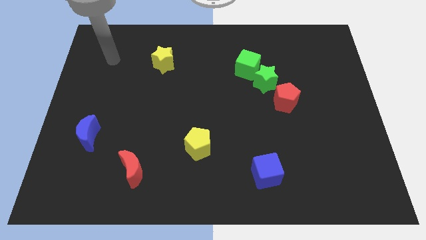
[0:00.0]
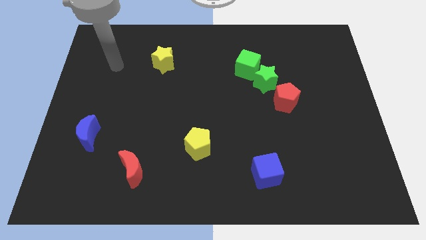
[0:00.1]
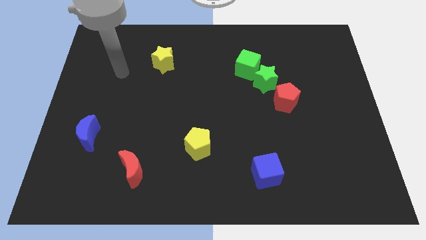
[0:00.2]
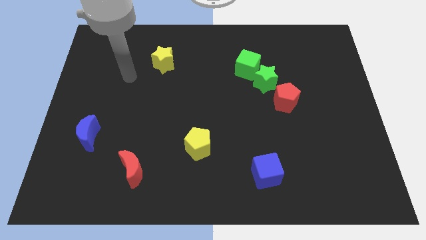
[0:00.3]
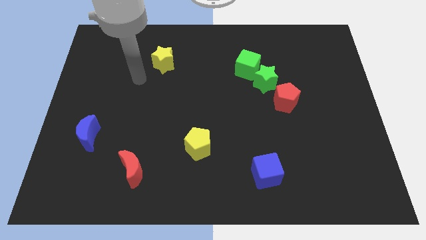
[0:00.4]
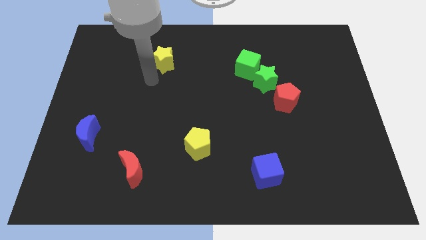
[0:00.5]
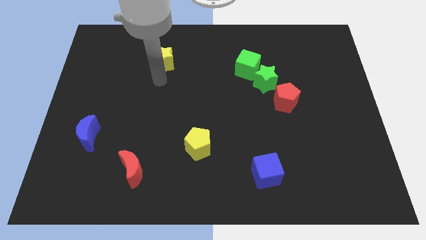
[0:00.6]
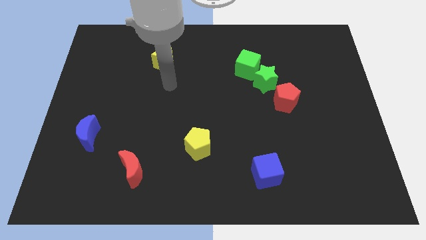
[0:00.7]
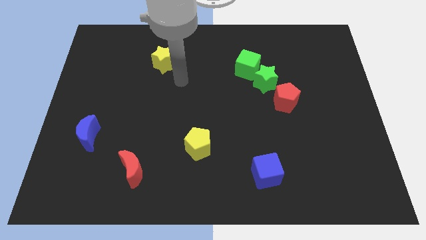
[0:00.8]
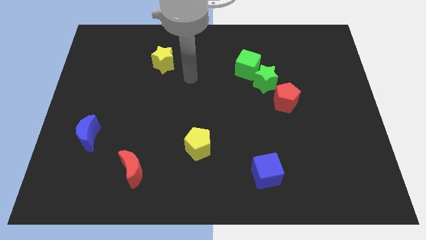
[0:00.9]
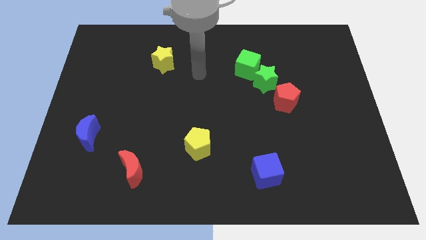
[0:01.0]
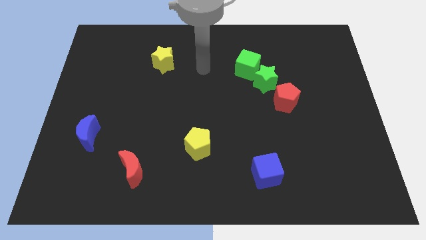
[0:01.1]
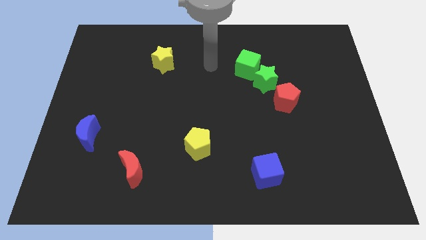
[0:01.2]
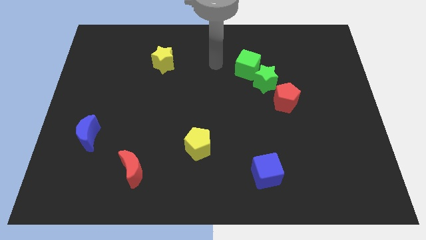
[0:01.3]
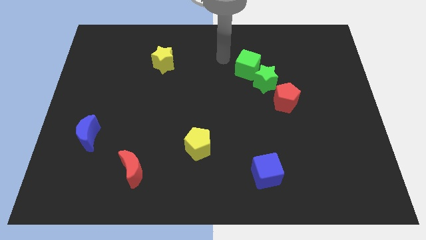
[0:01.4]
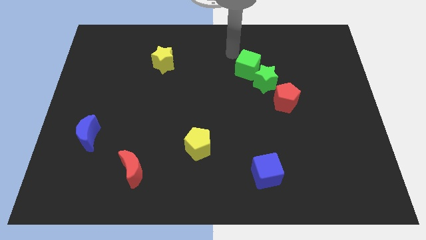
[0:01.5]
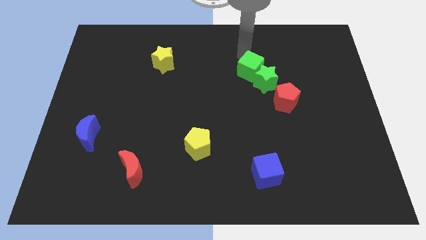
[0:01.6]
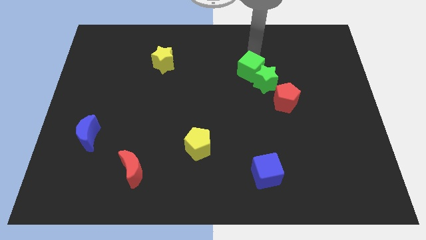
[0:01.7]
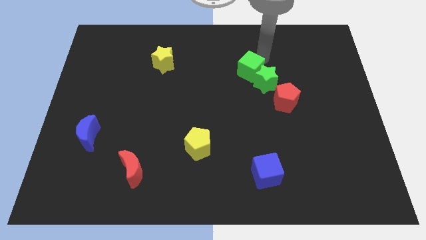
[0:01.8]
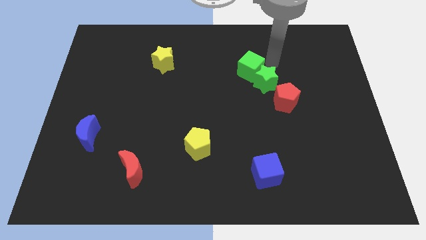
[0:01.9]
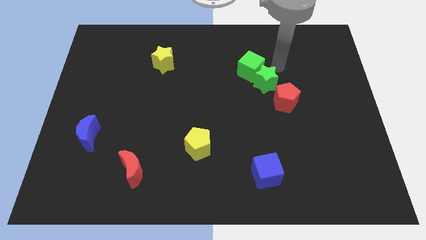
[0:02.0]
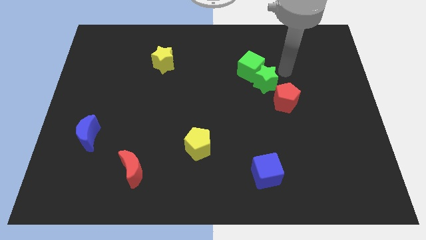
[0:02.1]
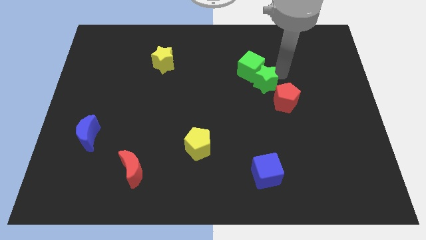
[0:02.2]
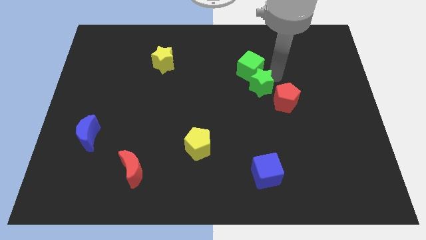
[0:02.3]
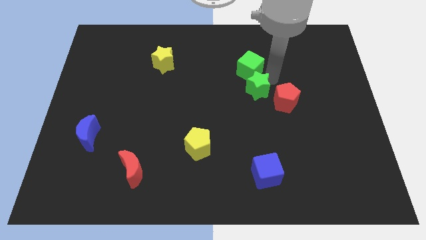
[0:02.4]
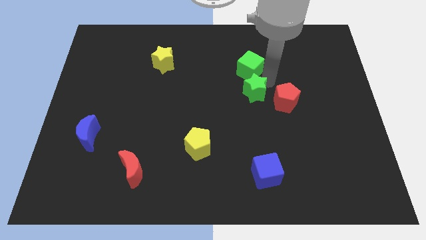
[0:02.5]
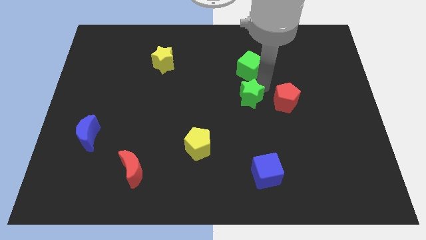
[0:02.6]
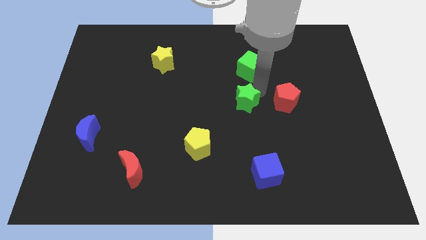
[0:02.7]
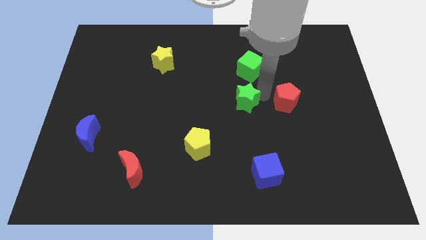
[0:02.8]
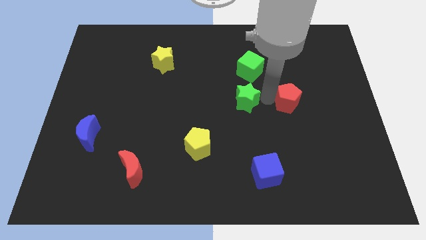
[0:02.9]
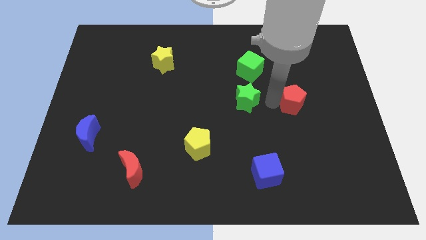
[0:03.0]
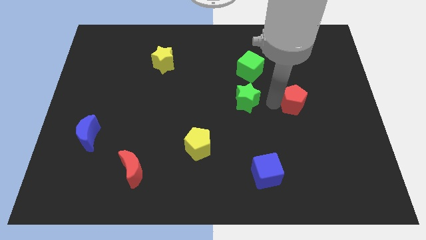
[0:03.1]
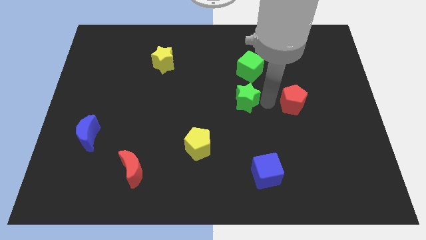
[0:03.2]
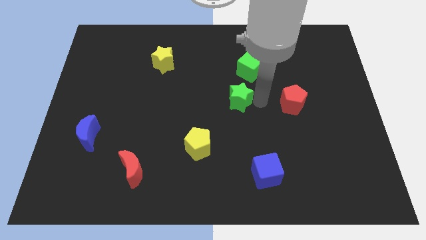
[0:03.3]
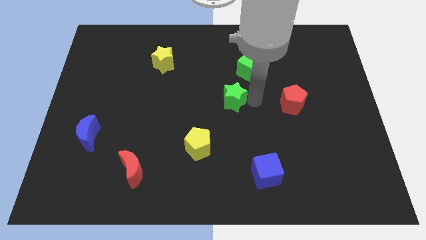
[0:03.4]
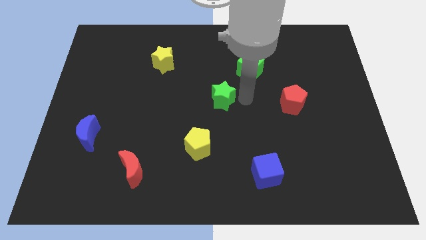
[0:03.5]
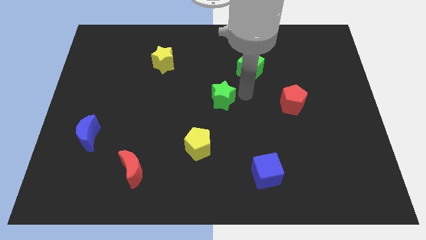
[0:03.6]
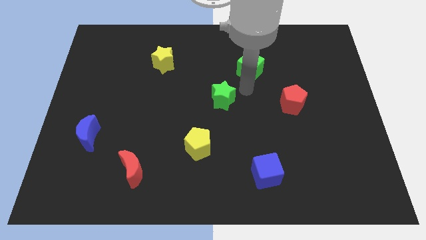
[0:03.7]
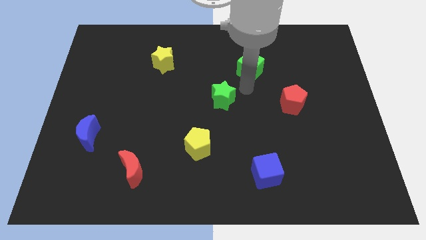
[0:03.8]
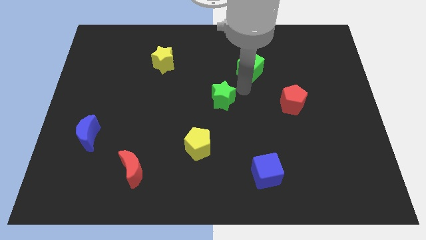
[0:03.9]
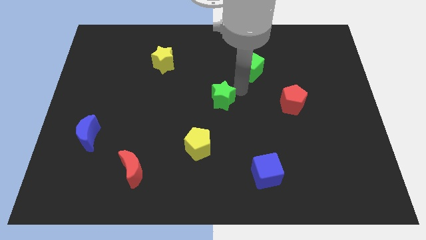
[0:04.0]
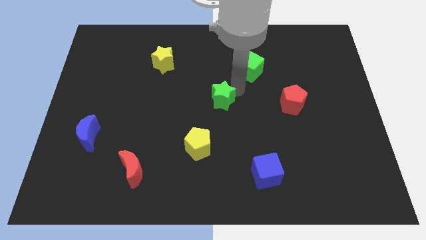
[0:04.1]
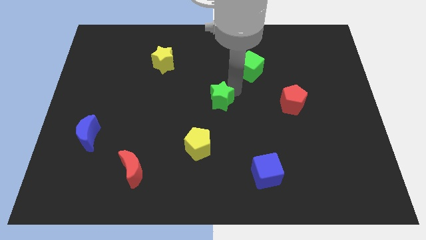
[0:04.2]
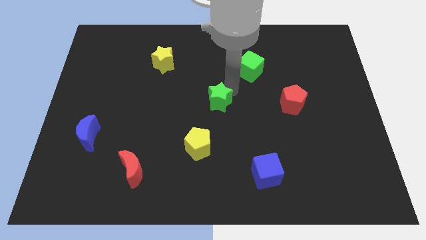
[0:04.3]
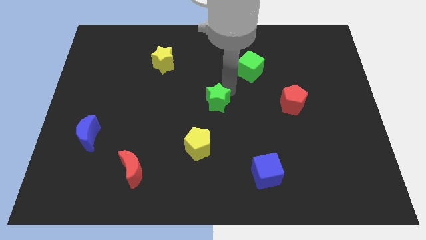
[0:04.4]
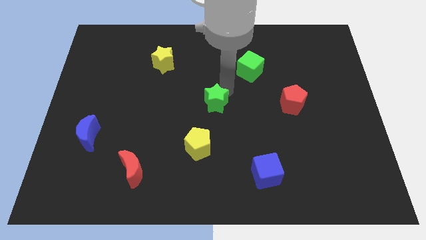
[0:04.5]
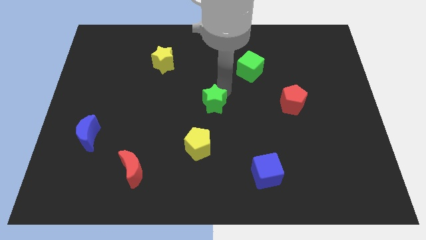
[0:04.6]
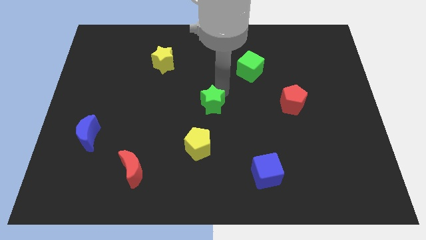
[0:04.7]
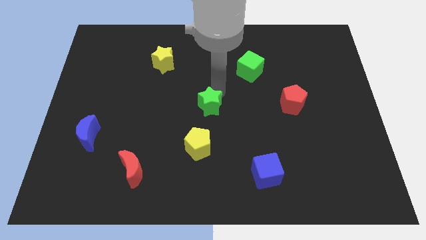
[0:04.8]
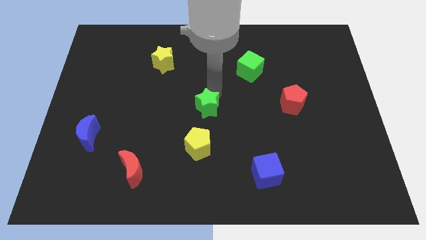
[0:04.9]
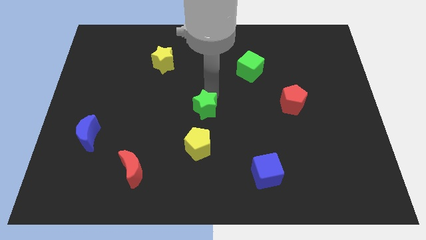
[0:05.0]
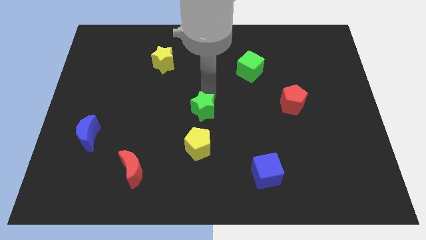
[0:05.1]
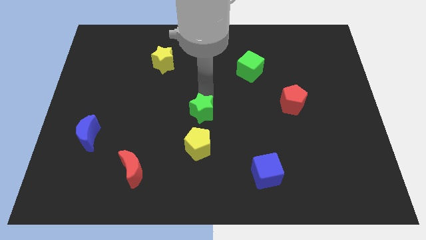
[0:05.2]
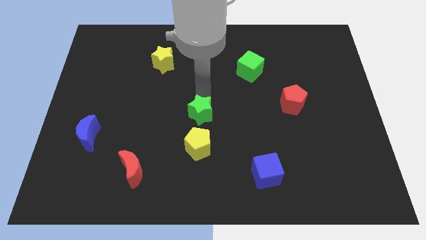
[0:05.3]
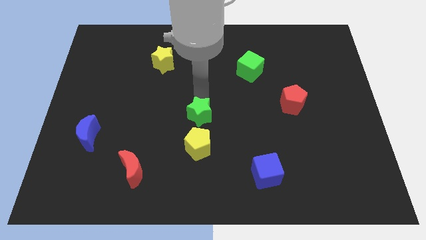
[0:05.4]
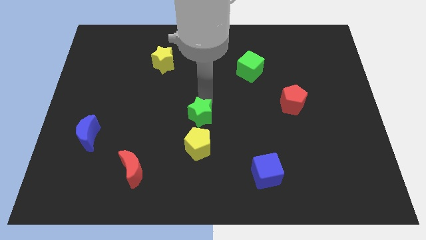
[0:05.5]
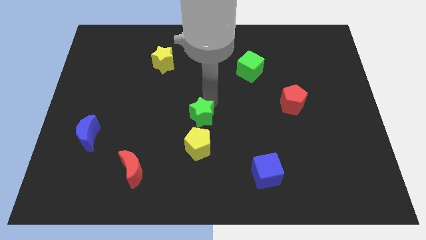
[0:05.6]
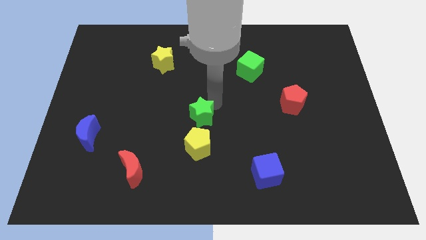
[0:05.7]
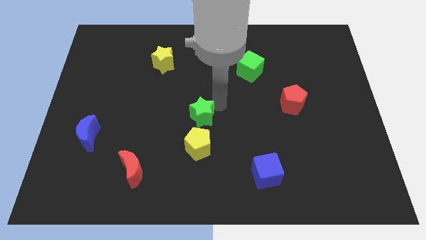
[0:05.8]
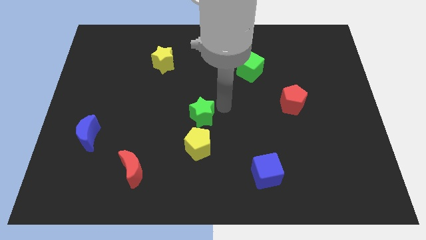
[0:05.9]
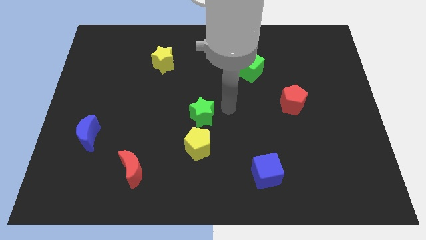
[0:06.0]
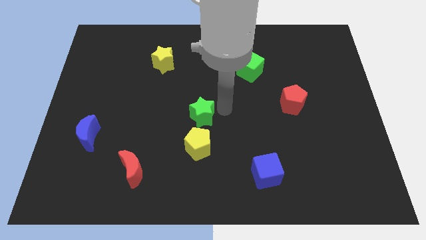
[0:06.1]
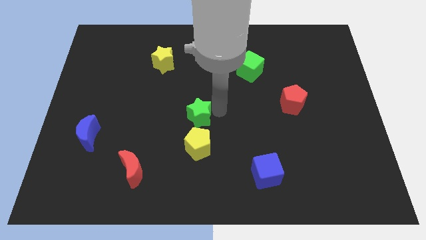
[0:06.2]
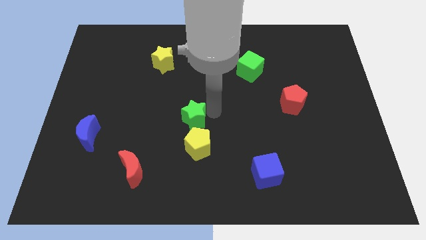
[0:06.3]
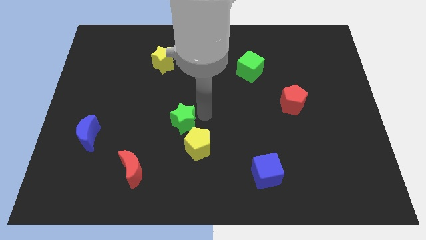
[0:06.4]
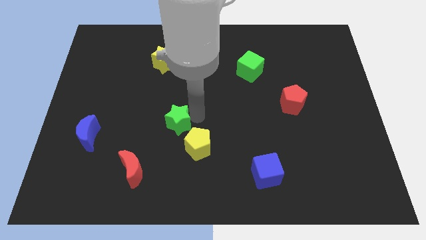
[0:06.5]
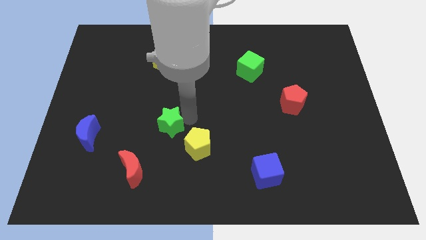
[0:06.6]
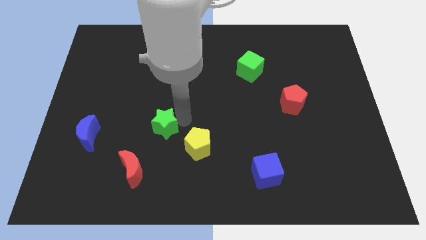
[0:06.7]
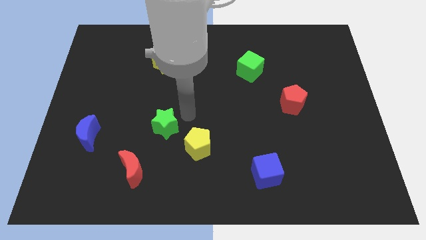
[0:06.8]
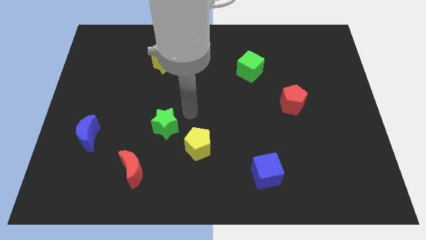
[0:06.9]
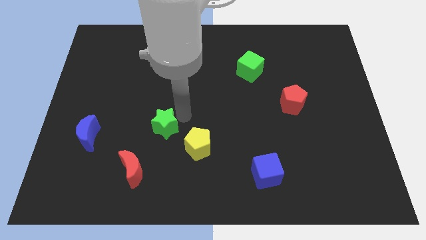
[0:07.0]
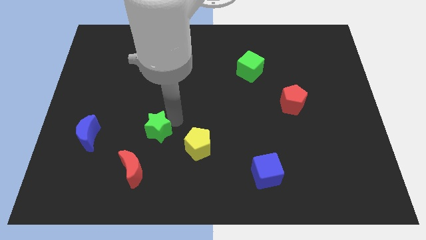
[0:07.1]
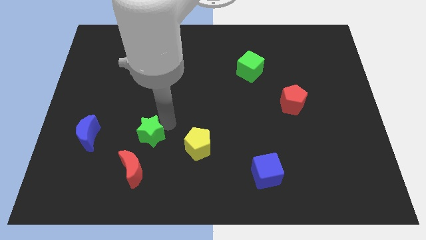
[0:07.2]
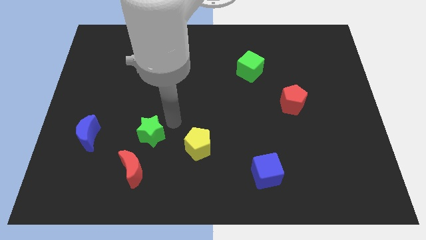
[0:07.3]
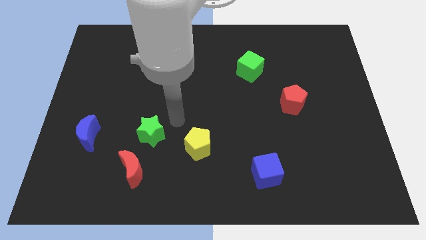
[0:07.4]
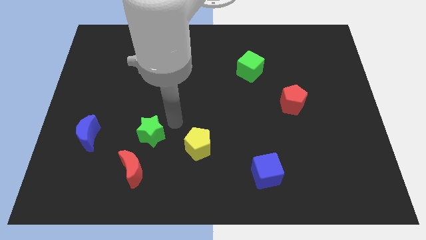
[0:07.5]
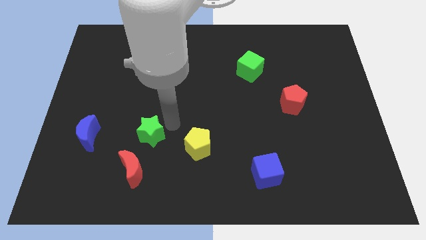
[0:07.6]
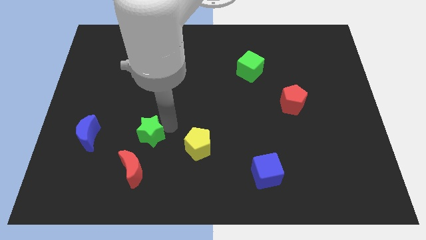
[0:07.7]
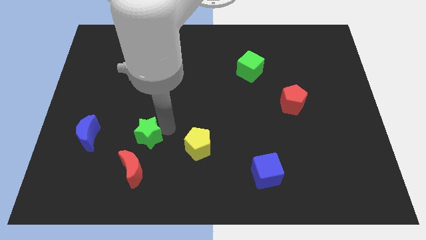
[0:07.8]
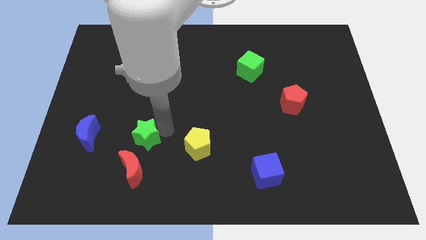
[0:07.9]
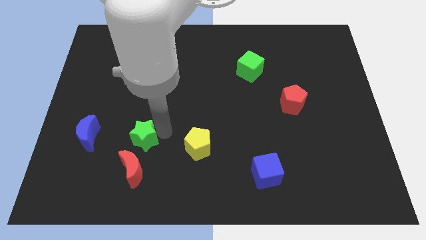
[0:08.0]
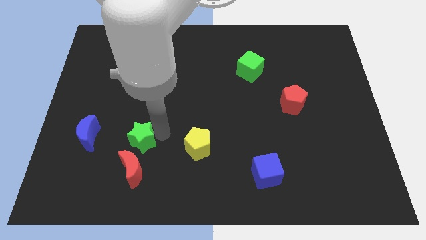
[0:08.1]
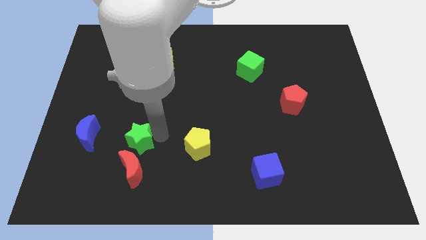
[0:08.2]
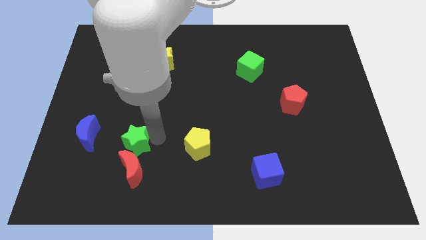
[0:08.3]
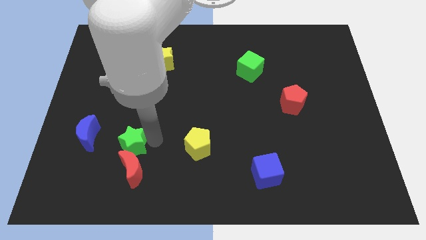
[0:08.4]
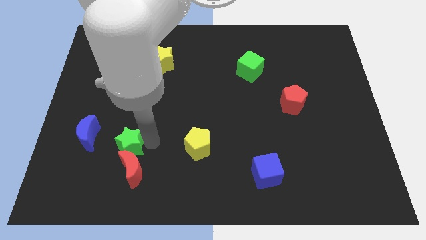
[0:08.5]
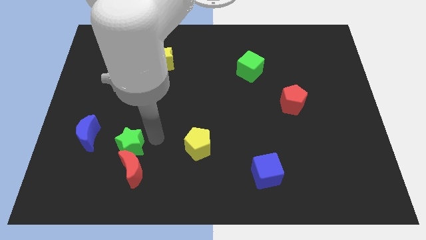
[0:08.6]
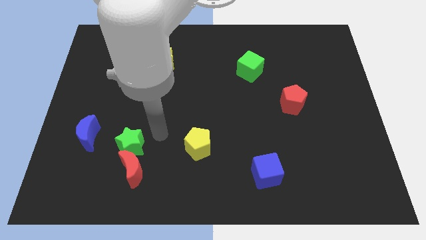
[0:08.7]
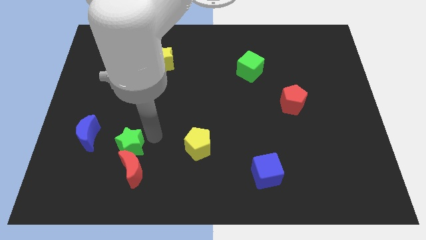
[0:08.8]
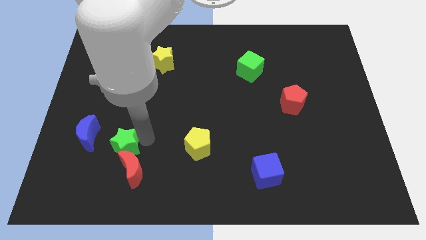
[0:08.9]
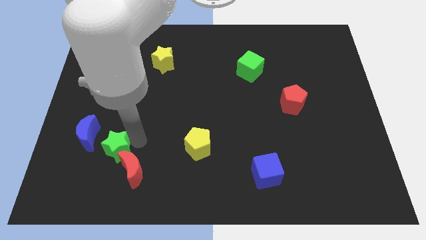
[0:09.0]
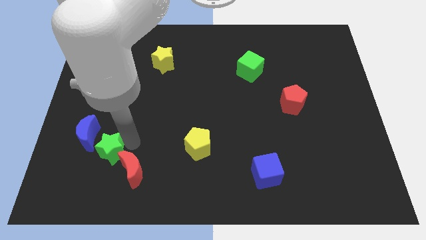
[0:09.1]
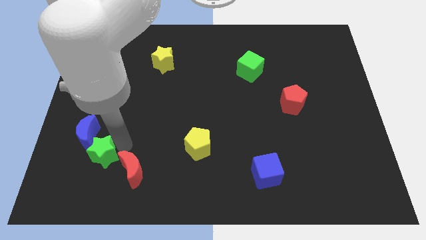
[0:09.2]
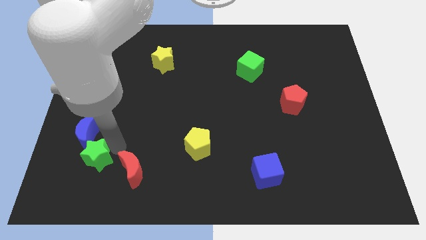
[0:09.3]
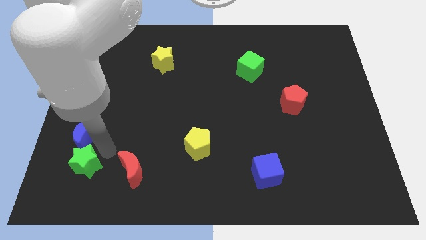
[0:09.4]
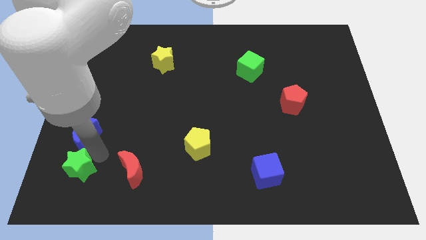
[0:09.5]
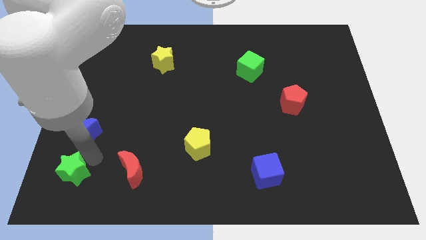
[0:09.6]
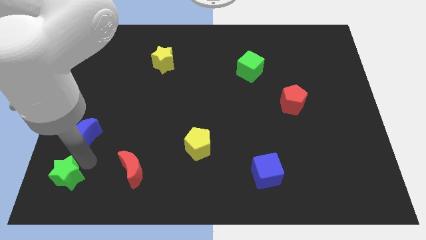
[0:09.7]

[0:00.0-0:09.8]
slide the green star to the bottom left of the board
